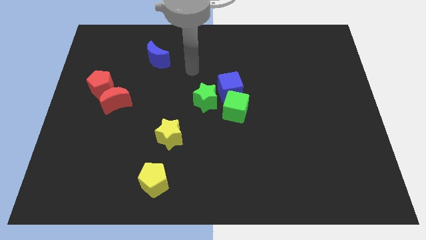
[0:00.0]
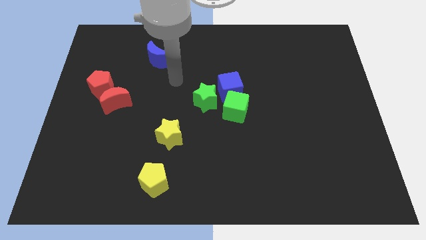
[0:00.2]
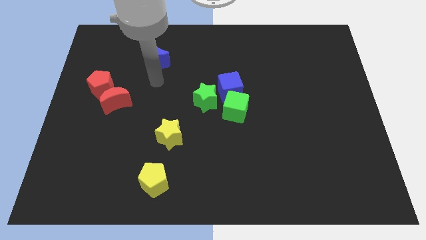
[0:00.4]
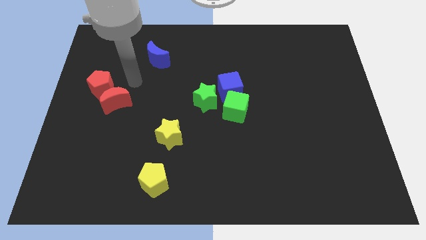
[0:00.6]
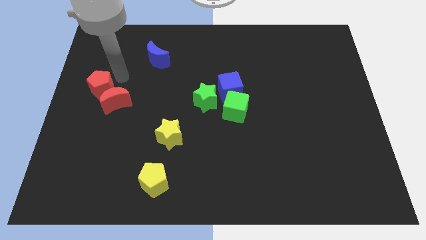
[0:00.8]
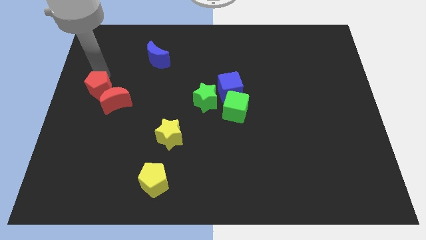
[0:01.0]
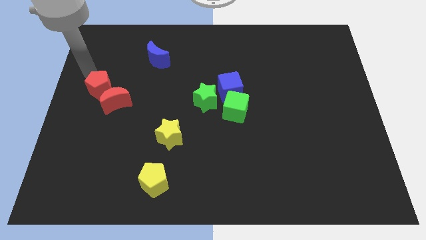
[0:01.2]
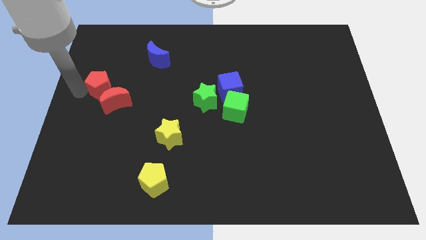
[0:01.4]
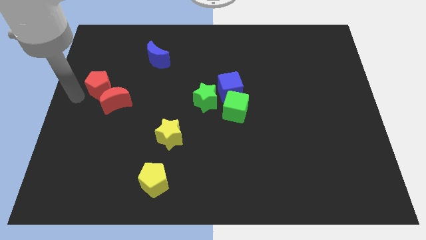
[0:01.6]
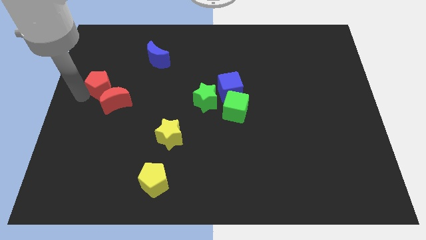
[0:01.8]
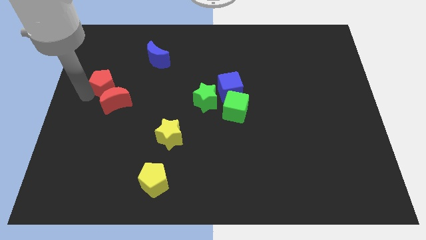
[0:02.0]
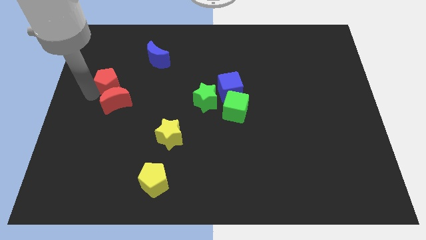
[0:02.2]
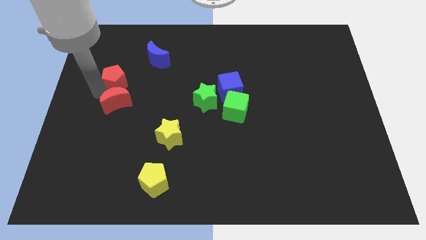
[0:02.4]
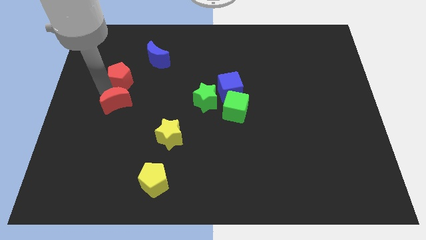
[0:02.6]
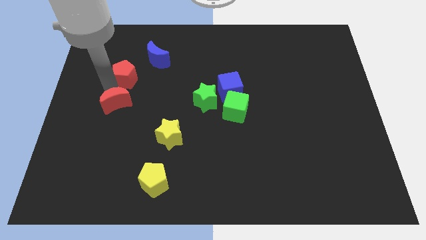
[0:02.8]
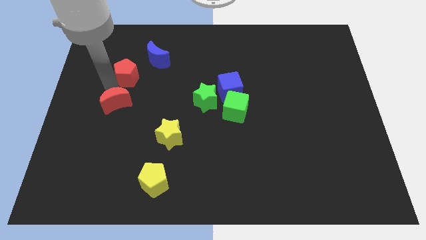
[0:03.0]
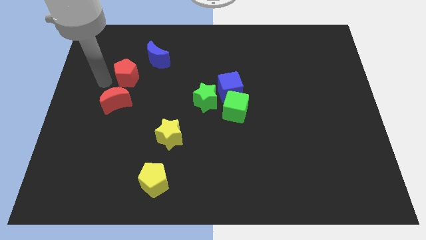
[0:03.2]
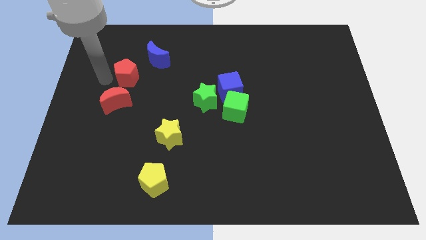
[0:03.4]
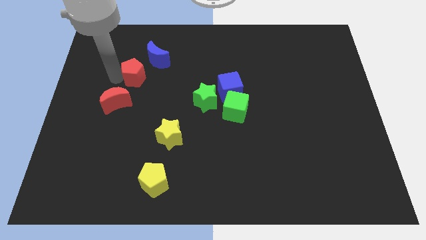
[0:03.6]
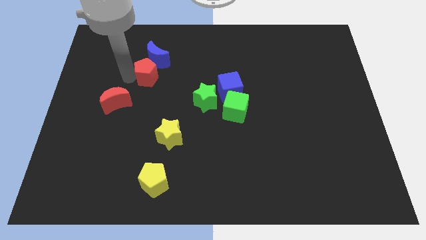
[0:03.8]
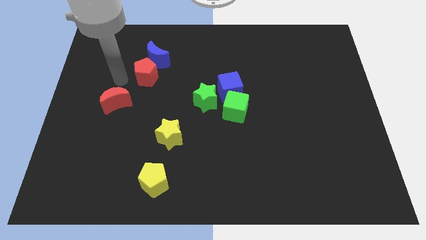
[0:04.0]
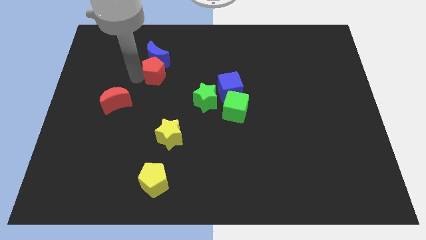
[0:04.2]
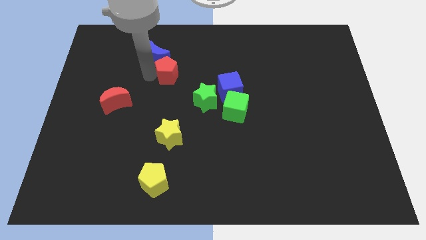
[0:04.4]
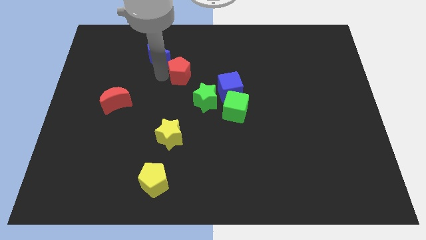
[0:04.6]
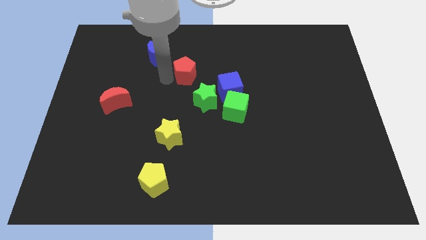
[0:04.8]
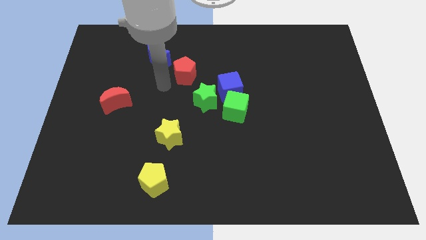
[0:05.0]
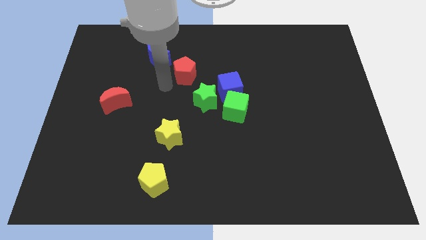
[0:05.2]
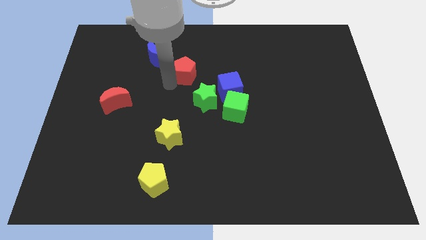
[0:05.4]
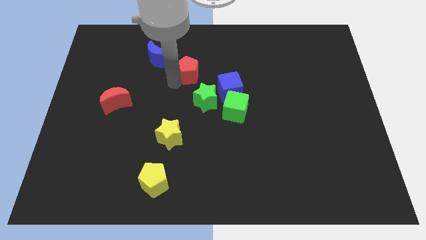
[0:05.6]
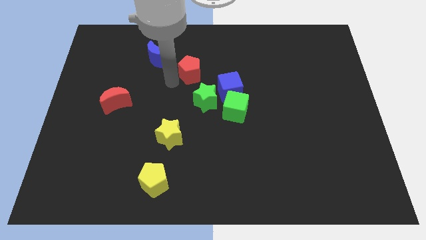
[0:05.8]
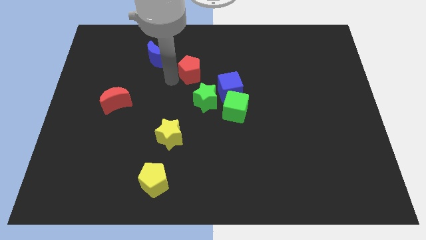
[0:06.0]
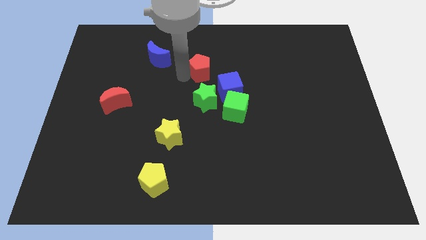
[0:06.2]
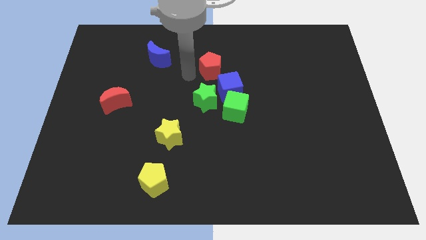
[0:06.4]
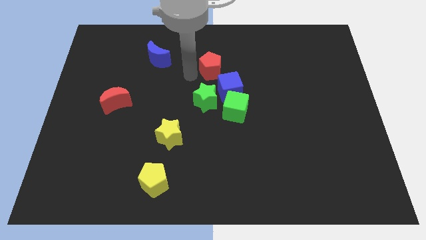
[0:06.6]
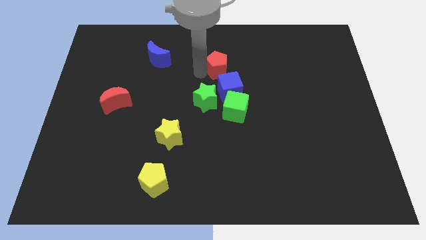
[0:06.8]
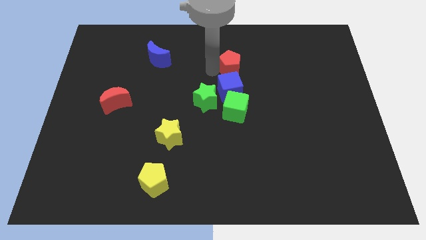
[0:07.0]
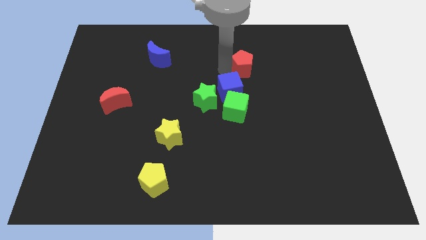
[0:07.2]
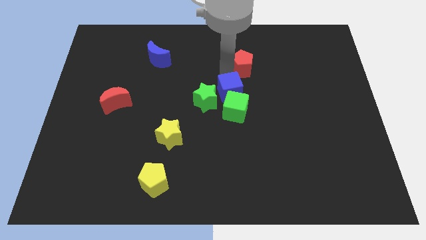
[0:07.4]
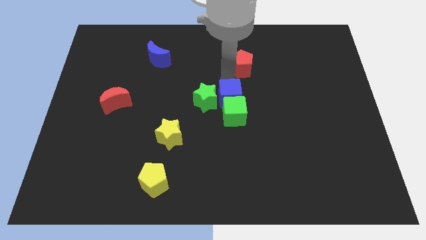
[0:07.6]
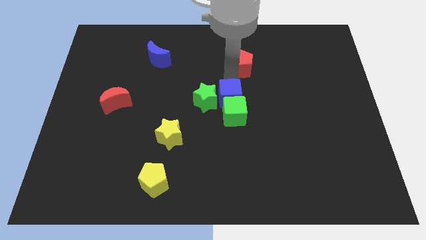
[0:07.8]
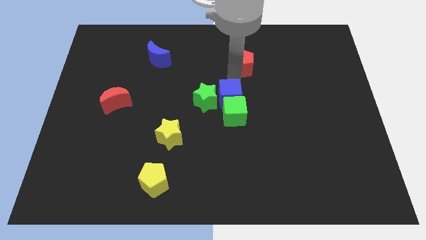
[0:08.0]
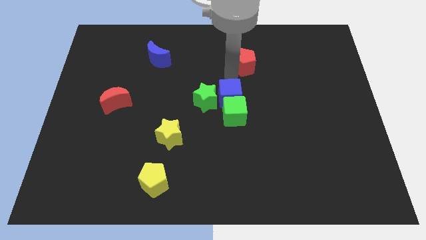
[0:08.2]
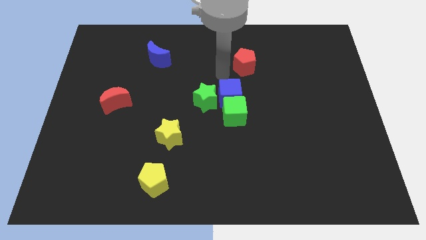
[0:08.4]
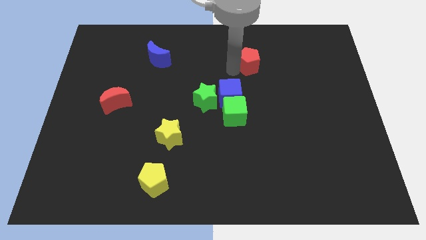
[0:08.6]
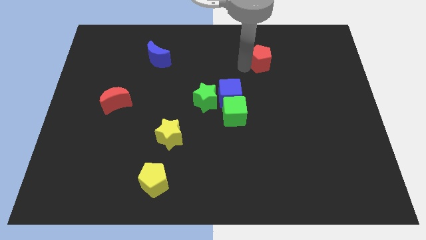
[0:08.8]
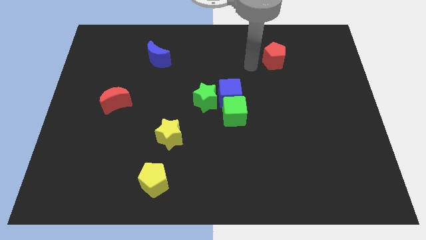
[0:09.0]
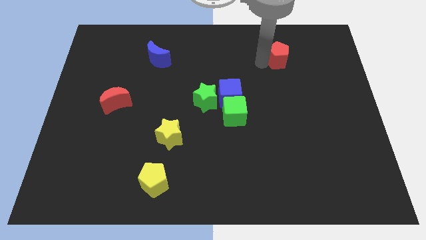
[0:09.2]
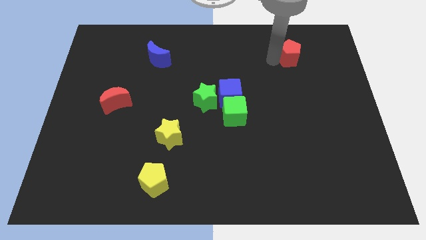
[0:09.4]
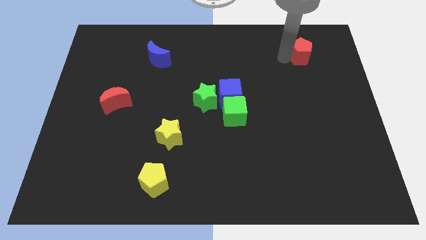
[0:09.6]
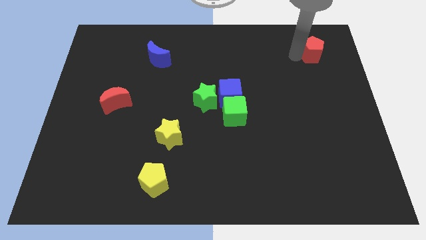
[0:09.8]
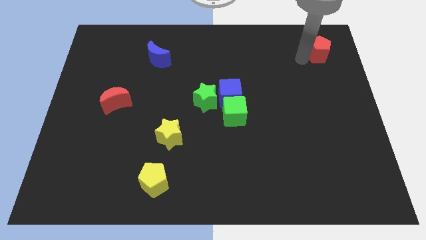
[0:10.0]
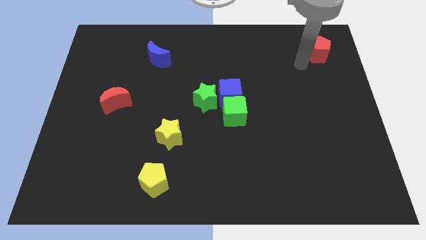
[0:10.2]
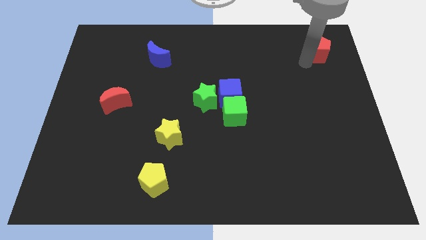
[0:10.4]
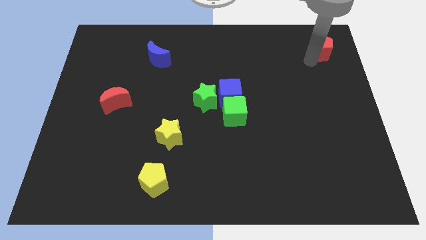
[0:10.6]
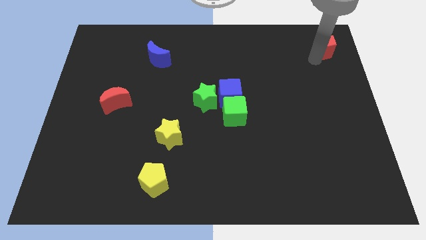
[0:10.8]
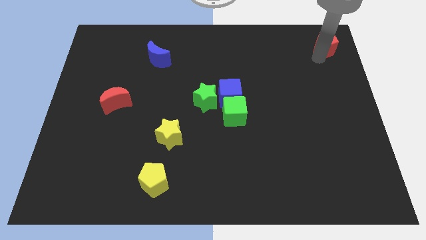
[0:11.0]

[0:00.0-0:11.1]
push the red pentagon to the upper right corner

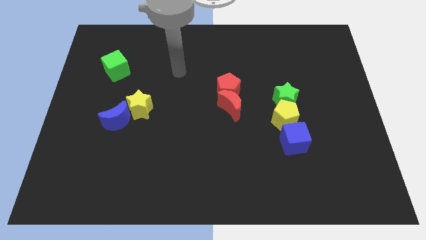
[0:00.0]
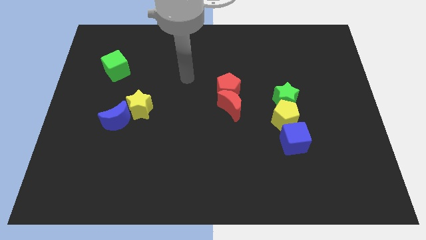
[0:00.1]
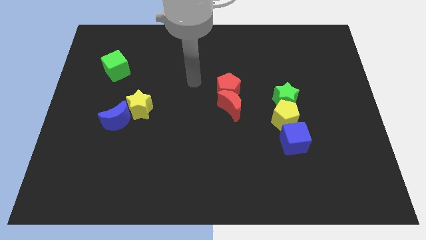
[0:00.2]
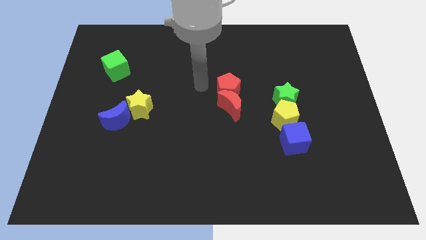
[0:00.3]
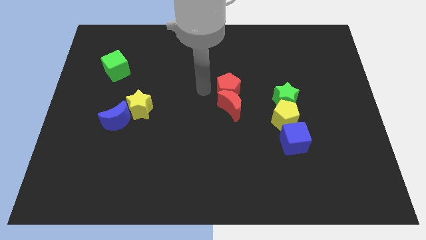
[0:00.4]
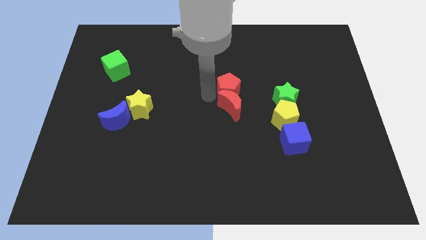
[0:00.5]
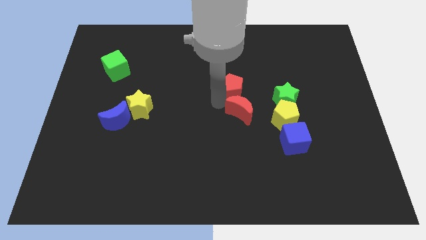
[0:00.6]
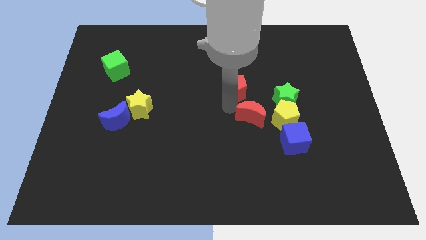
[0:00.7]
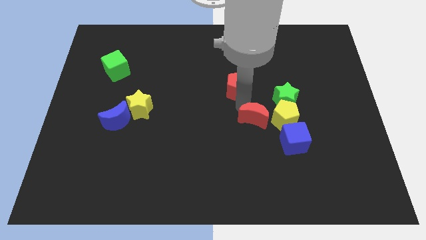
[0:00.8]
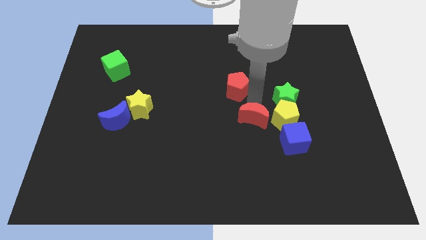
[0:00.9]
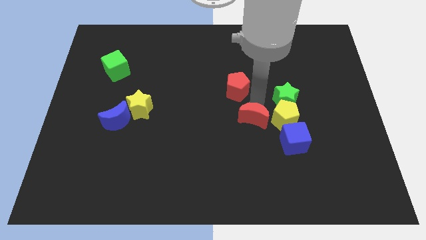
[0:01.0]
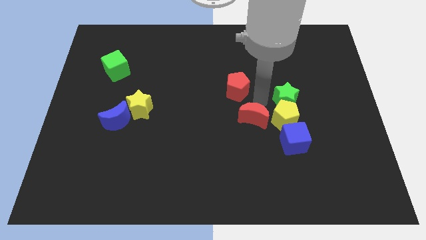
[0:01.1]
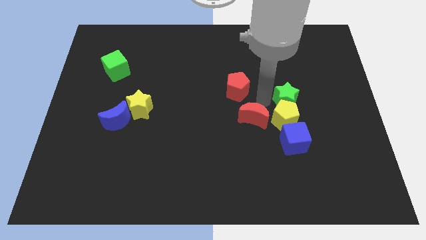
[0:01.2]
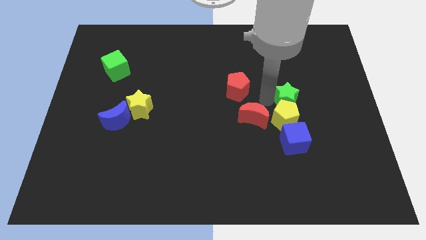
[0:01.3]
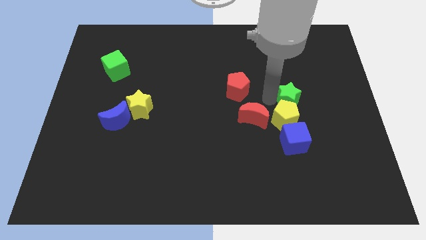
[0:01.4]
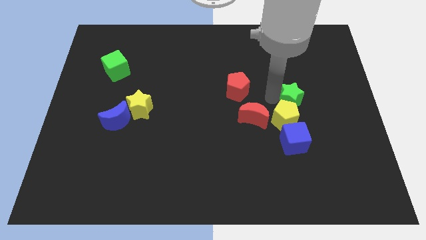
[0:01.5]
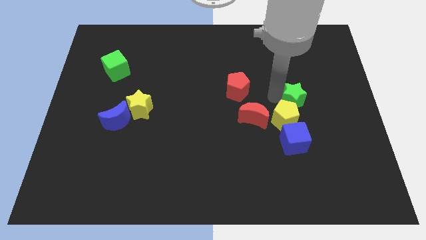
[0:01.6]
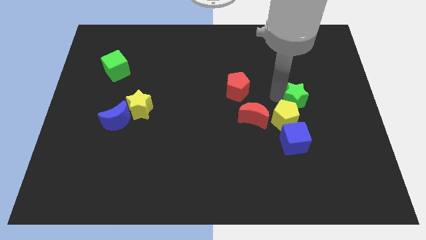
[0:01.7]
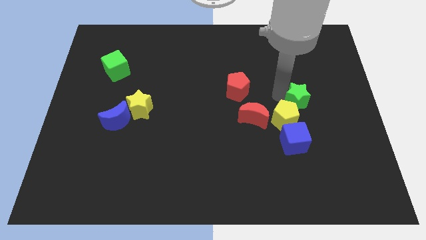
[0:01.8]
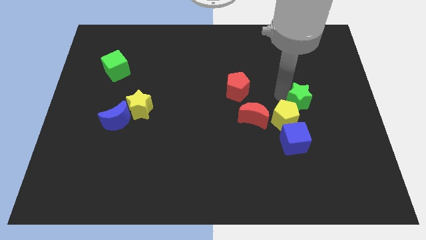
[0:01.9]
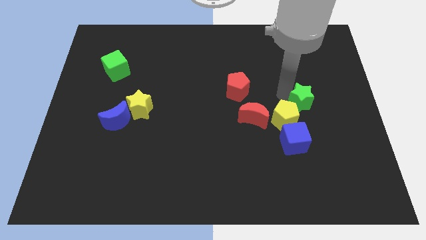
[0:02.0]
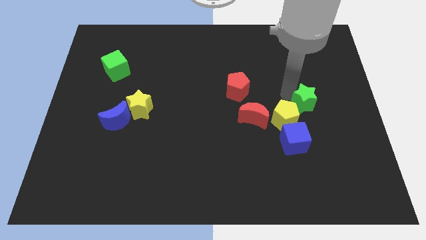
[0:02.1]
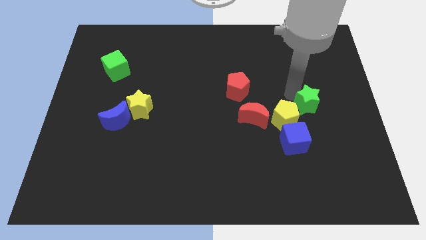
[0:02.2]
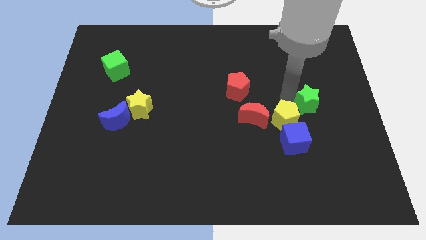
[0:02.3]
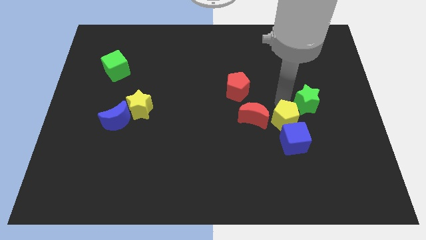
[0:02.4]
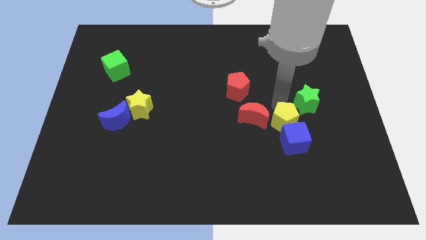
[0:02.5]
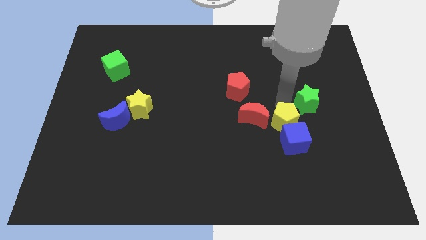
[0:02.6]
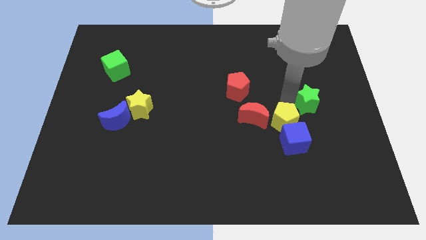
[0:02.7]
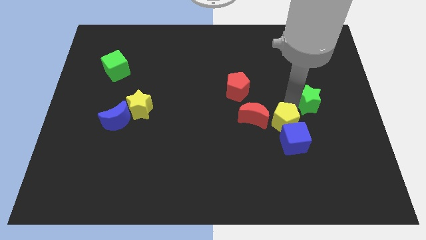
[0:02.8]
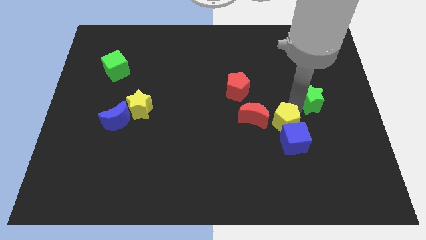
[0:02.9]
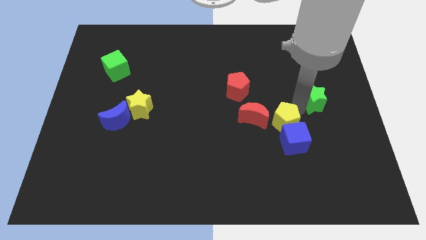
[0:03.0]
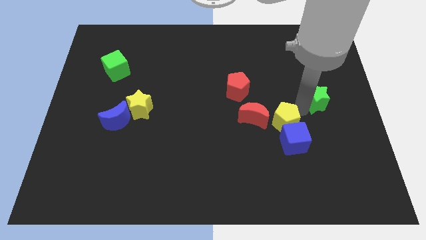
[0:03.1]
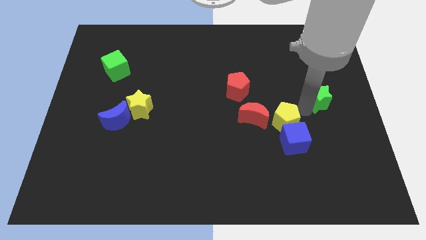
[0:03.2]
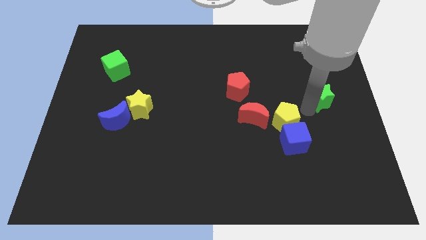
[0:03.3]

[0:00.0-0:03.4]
move the green star to the right side of the board
